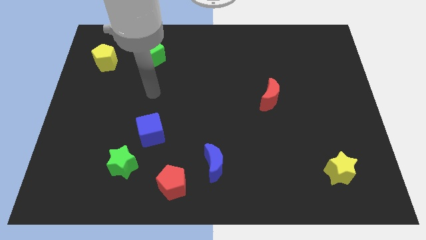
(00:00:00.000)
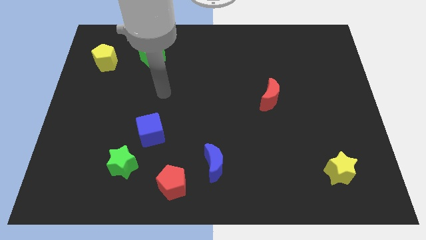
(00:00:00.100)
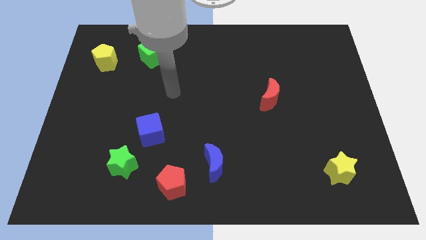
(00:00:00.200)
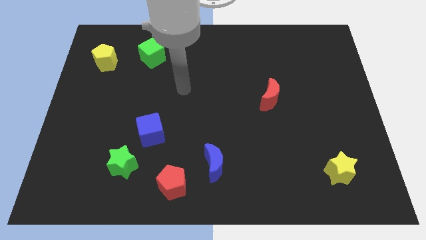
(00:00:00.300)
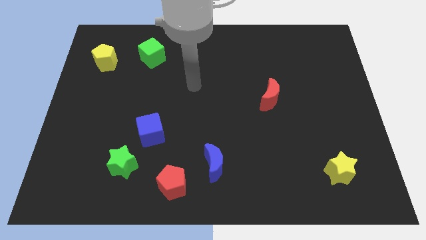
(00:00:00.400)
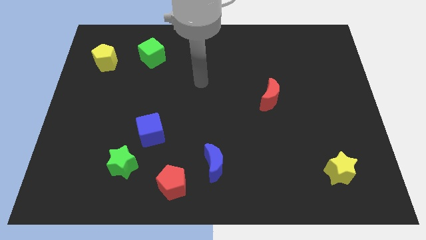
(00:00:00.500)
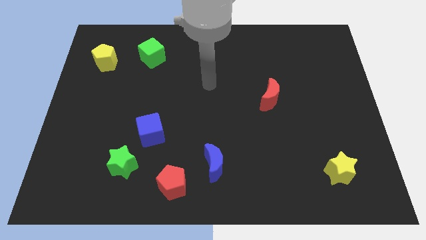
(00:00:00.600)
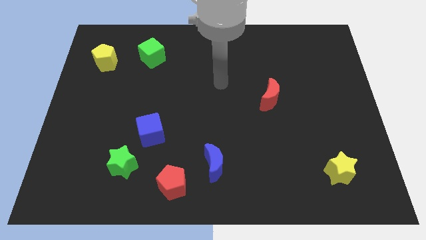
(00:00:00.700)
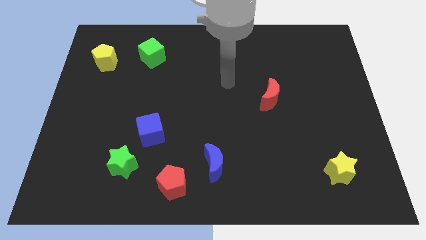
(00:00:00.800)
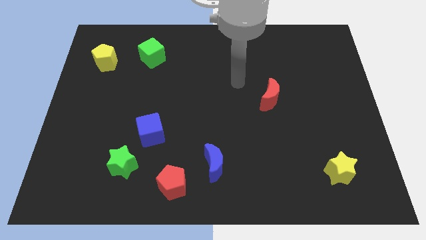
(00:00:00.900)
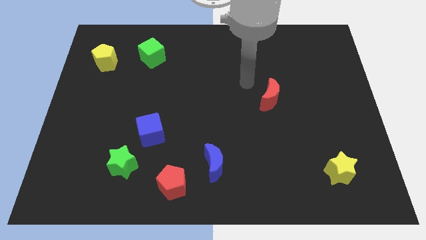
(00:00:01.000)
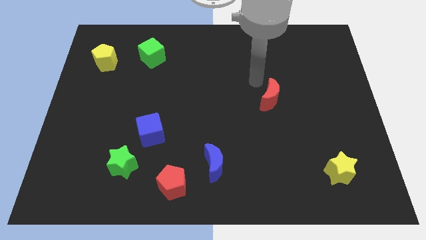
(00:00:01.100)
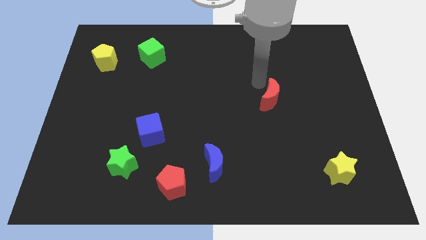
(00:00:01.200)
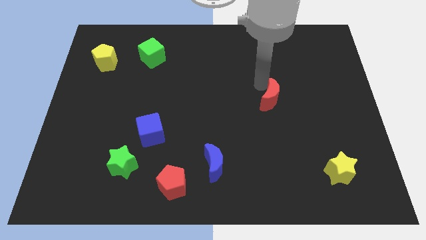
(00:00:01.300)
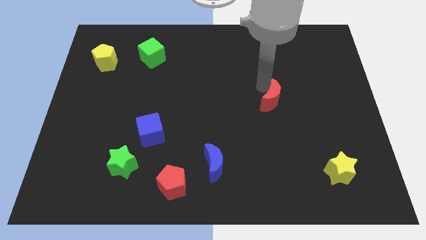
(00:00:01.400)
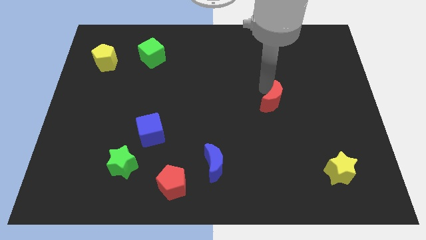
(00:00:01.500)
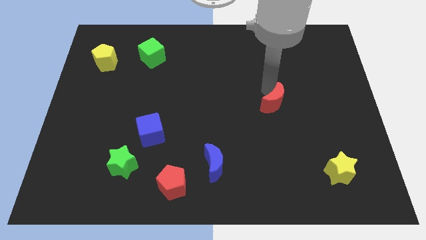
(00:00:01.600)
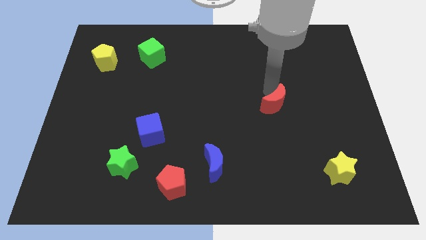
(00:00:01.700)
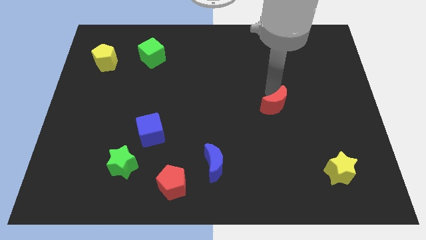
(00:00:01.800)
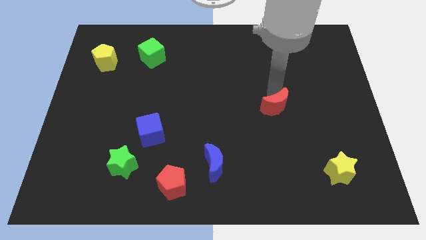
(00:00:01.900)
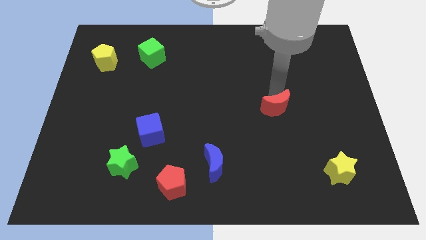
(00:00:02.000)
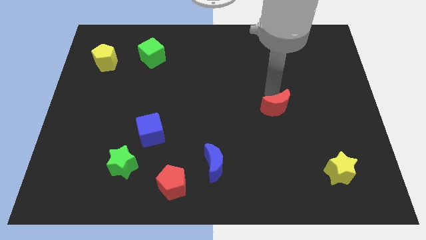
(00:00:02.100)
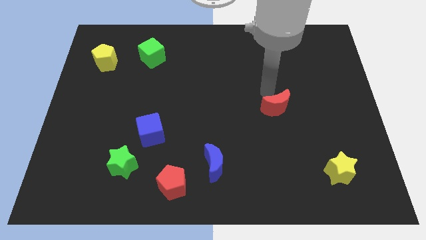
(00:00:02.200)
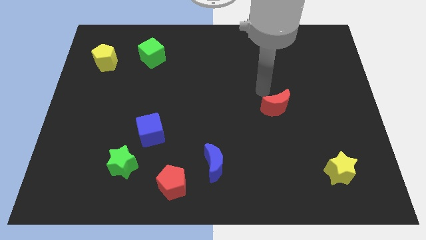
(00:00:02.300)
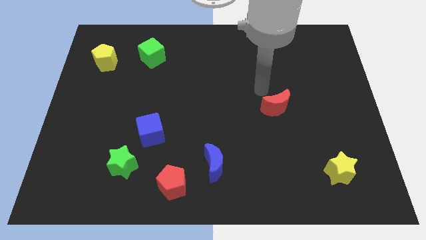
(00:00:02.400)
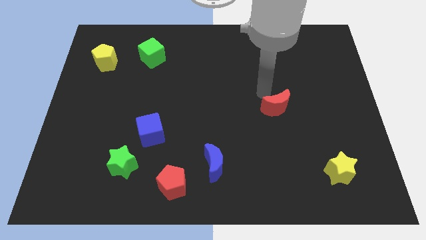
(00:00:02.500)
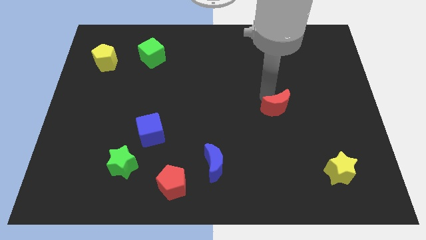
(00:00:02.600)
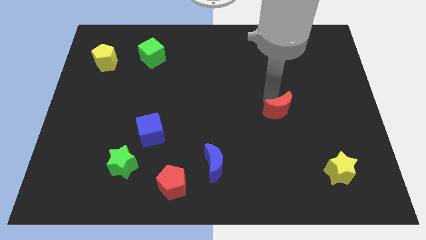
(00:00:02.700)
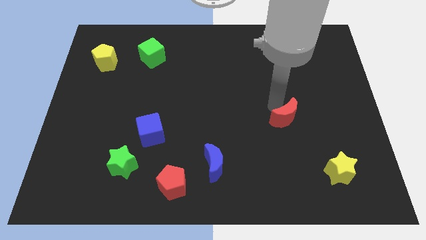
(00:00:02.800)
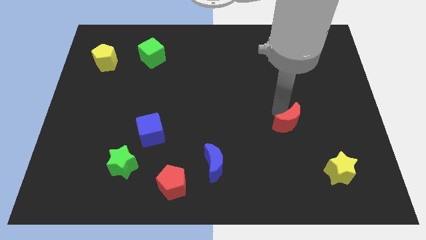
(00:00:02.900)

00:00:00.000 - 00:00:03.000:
push the red moon slightly diagonally downwards and right

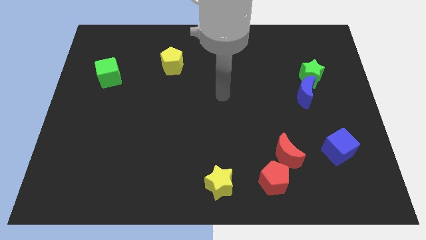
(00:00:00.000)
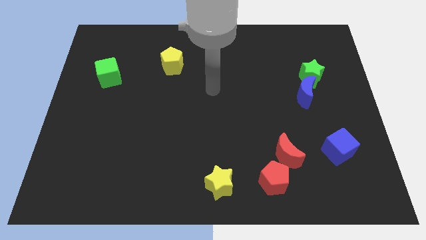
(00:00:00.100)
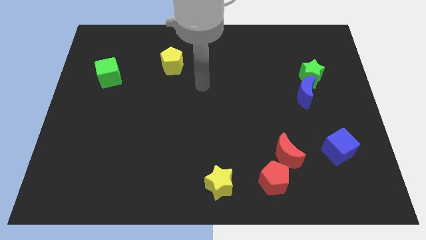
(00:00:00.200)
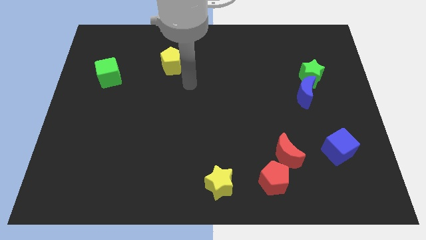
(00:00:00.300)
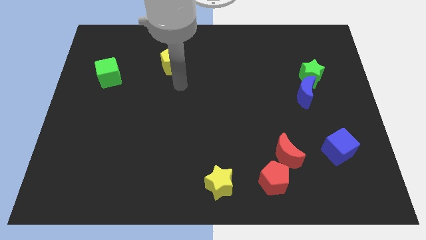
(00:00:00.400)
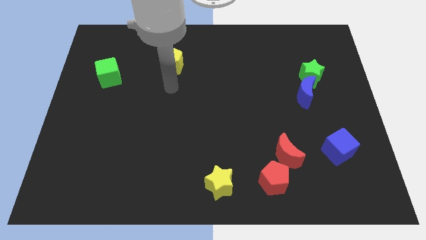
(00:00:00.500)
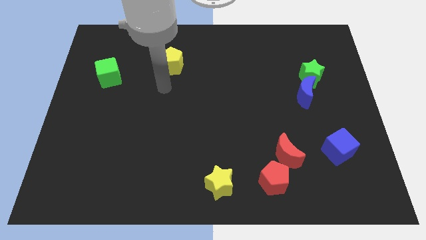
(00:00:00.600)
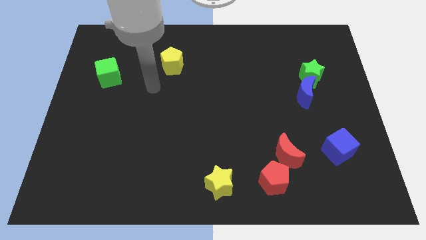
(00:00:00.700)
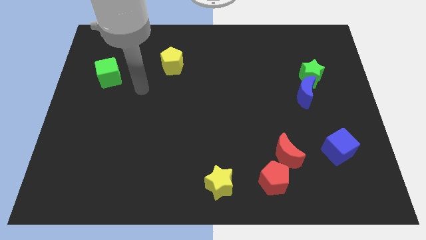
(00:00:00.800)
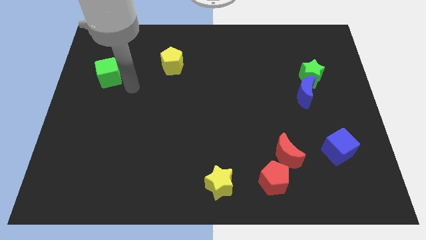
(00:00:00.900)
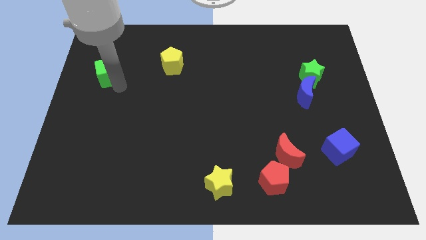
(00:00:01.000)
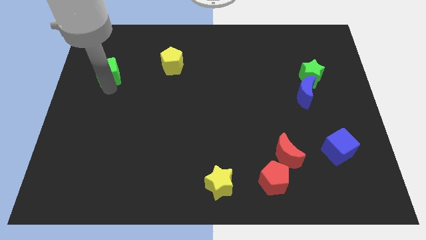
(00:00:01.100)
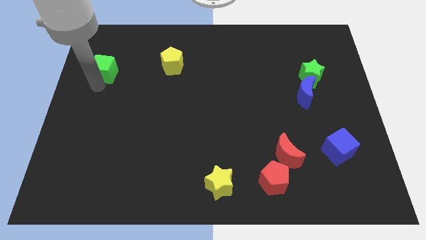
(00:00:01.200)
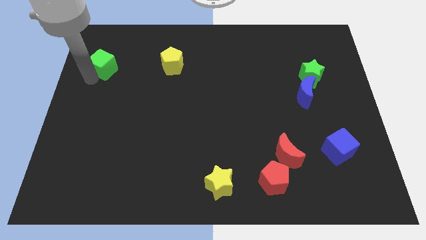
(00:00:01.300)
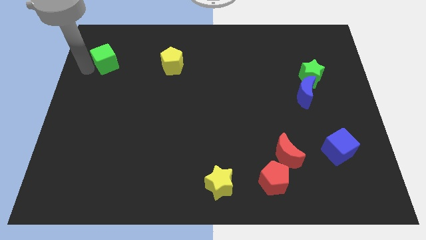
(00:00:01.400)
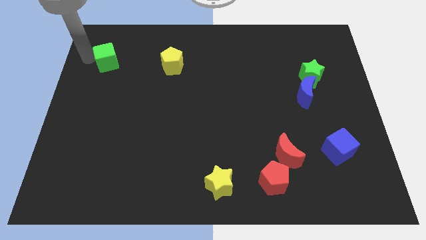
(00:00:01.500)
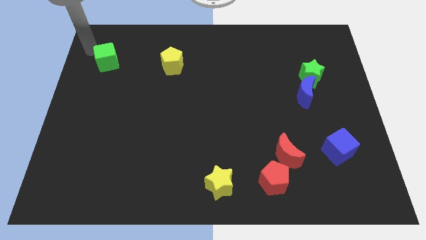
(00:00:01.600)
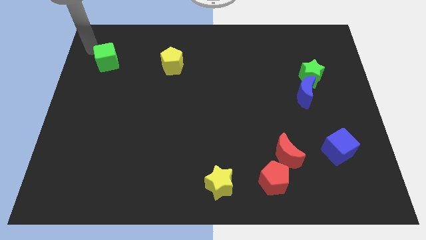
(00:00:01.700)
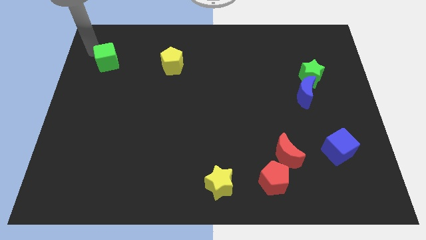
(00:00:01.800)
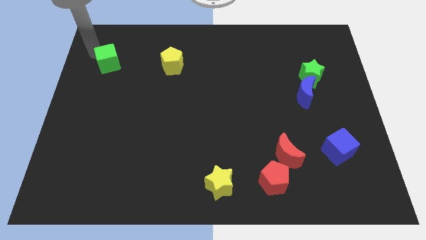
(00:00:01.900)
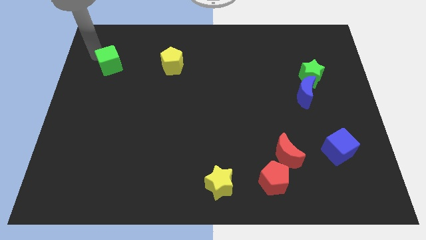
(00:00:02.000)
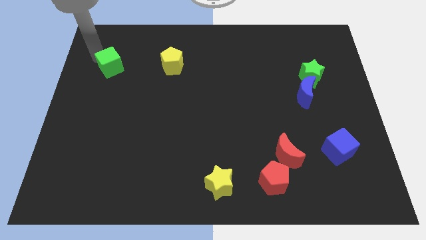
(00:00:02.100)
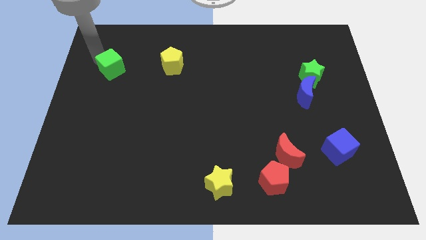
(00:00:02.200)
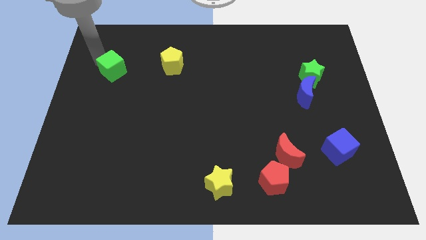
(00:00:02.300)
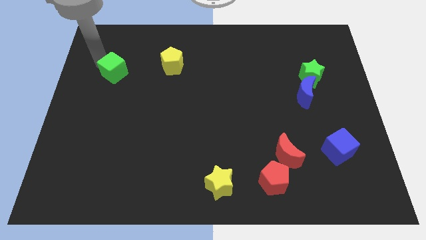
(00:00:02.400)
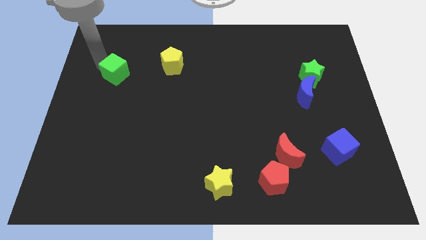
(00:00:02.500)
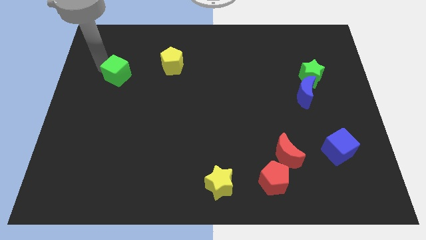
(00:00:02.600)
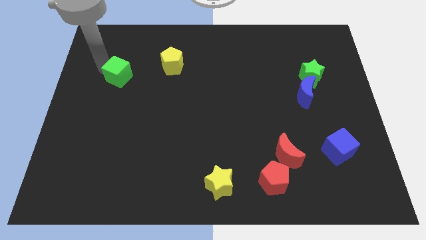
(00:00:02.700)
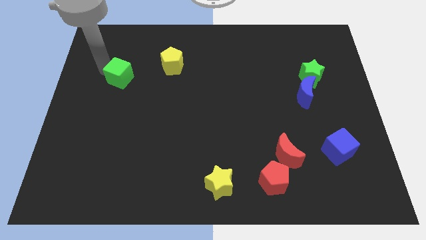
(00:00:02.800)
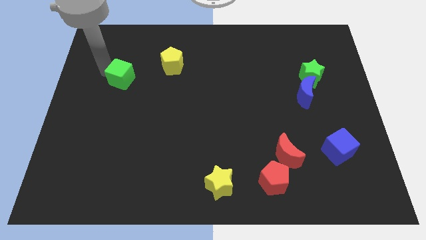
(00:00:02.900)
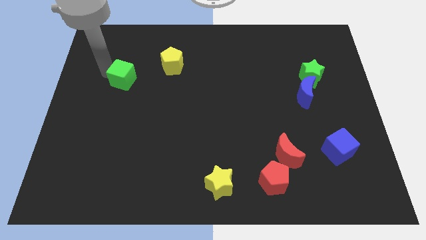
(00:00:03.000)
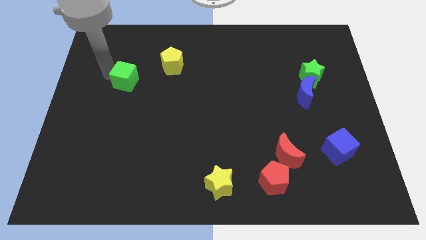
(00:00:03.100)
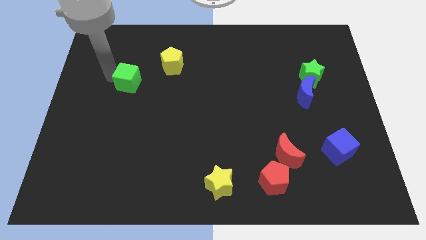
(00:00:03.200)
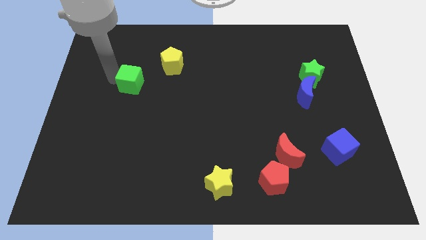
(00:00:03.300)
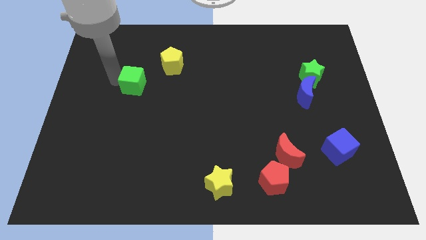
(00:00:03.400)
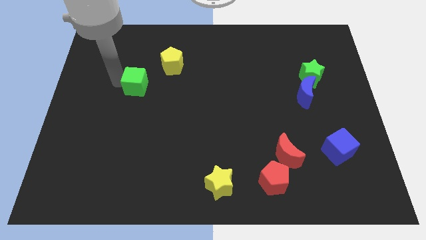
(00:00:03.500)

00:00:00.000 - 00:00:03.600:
slightly push the green cube to the right

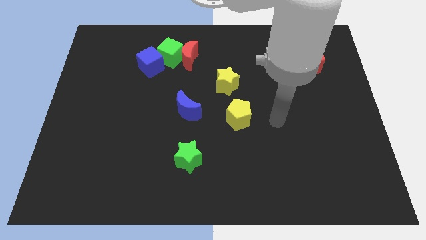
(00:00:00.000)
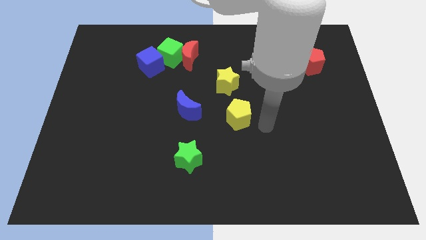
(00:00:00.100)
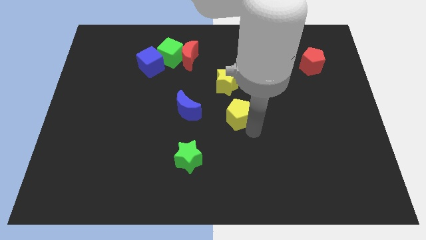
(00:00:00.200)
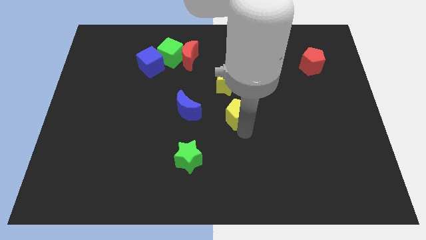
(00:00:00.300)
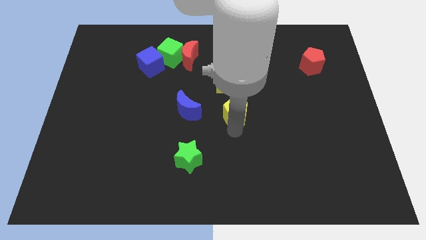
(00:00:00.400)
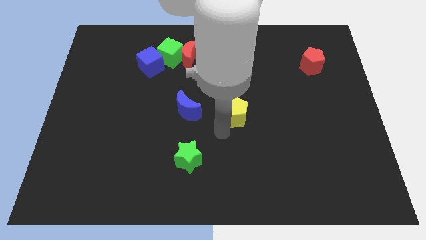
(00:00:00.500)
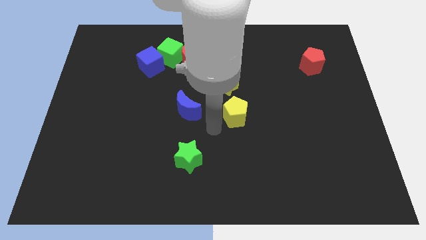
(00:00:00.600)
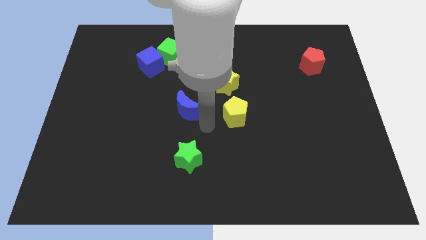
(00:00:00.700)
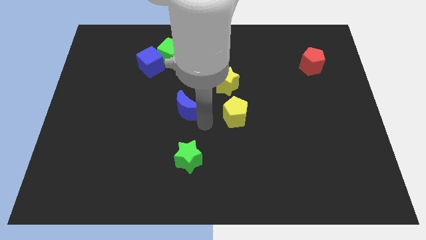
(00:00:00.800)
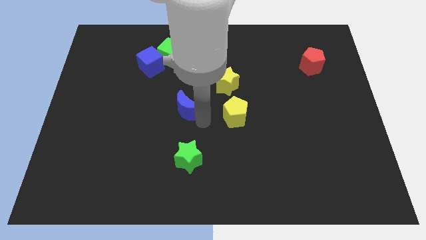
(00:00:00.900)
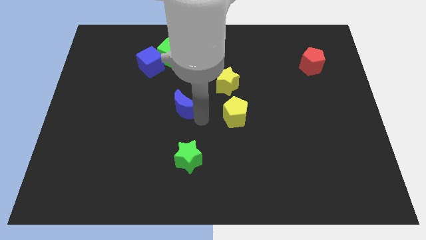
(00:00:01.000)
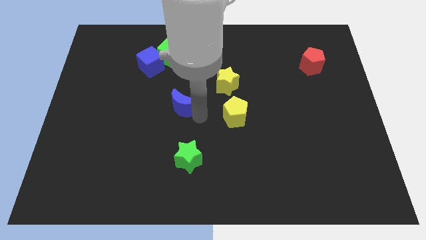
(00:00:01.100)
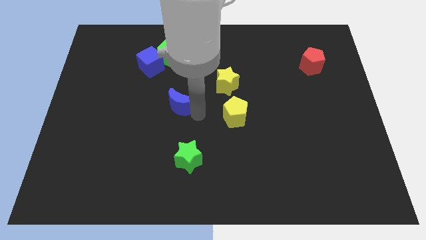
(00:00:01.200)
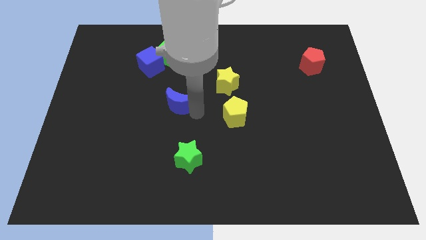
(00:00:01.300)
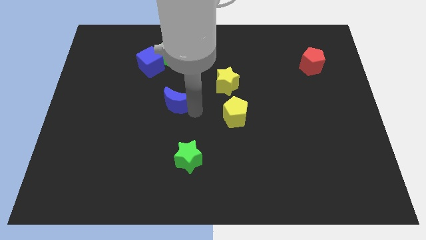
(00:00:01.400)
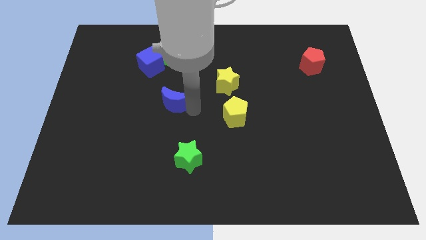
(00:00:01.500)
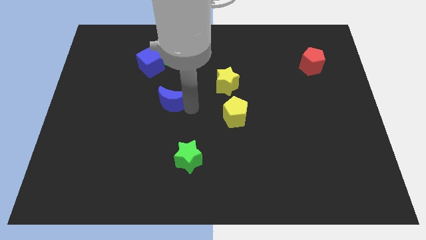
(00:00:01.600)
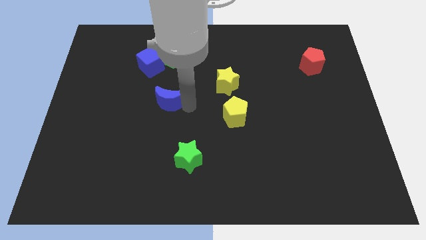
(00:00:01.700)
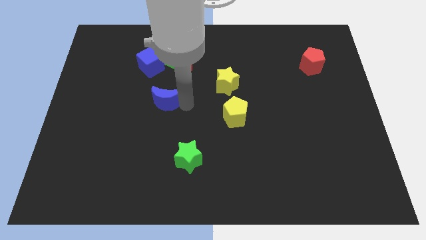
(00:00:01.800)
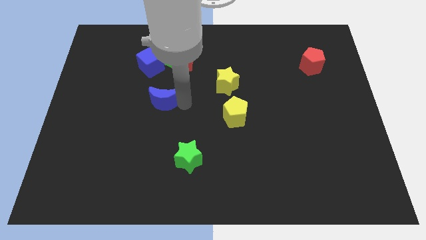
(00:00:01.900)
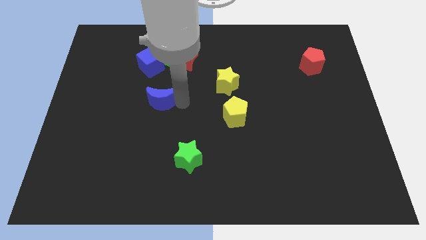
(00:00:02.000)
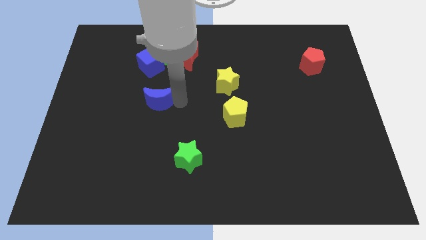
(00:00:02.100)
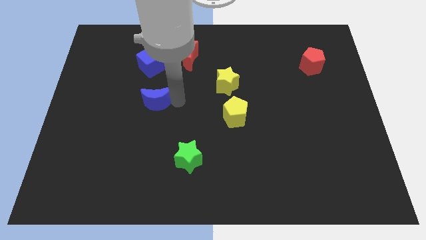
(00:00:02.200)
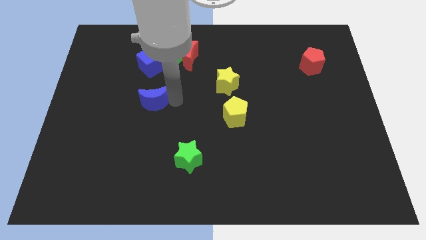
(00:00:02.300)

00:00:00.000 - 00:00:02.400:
slide the blue moon a little diagonally upwards and left
